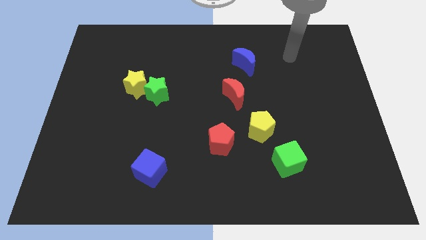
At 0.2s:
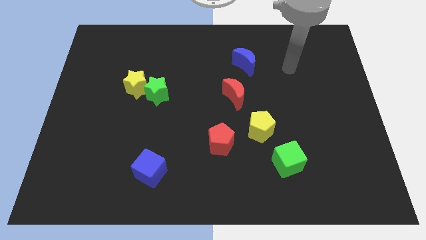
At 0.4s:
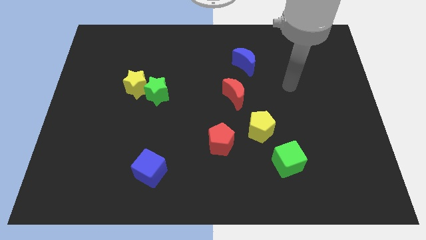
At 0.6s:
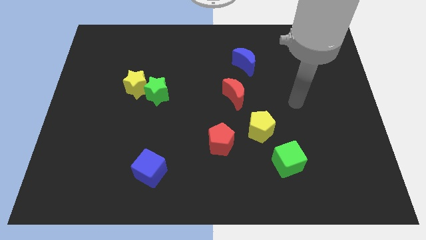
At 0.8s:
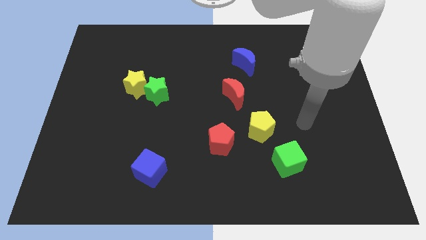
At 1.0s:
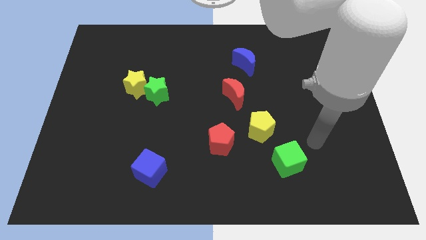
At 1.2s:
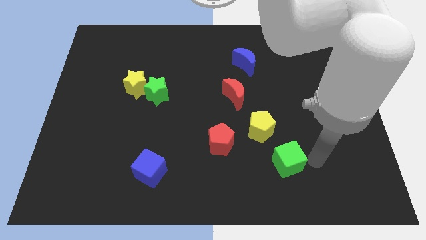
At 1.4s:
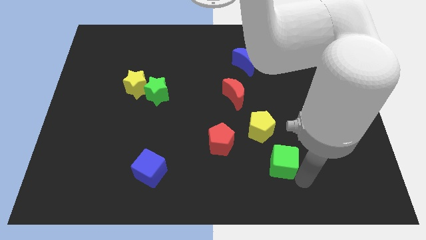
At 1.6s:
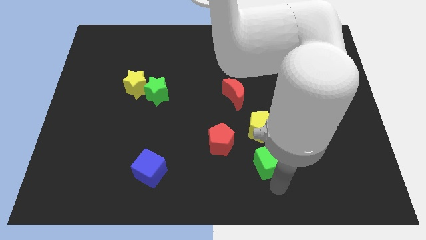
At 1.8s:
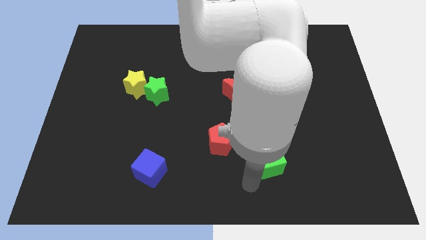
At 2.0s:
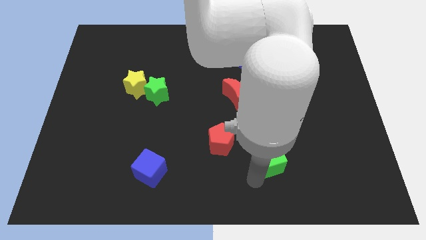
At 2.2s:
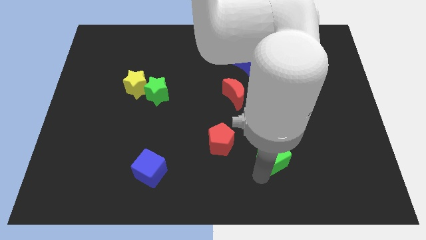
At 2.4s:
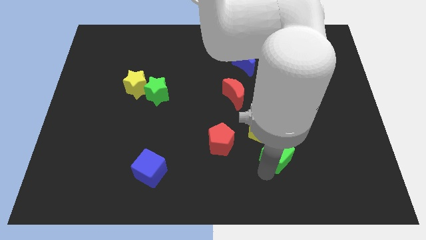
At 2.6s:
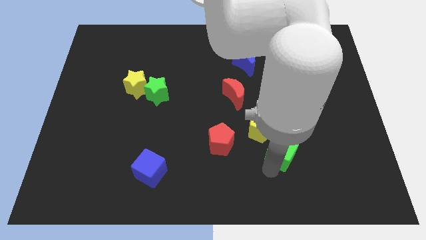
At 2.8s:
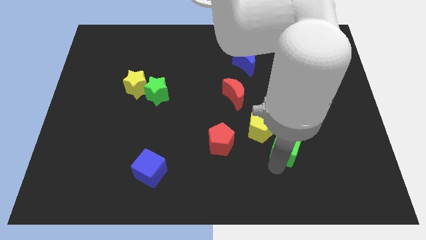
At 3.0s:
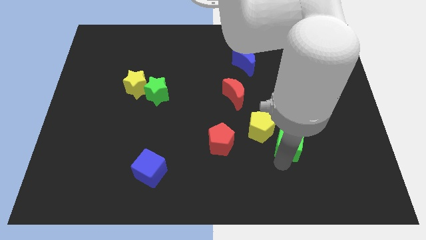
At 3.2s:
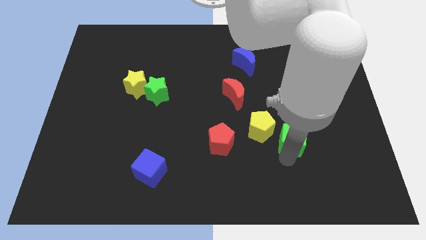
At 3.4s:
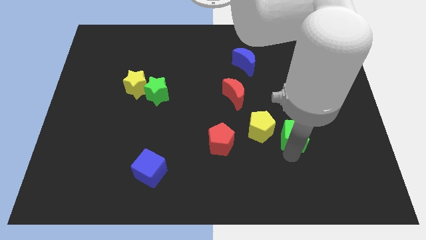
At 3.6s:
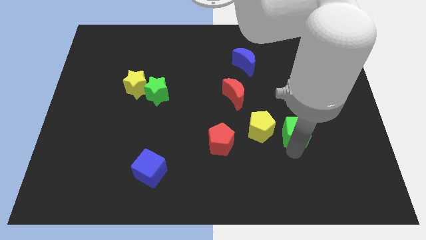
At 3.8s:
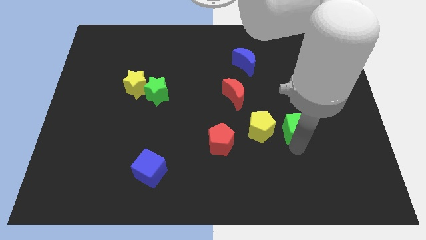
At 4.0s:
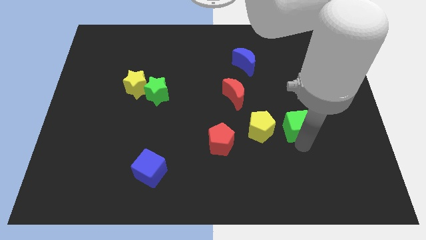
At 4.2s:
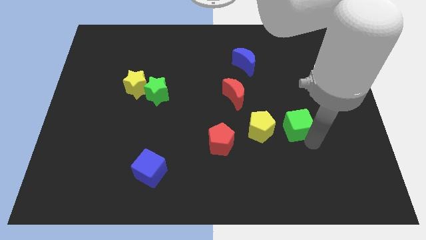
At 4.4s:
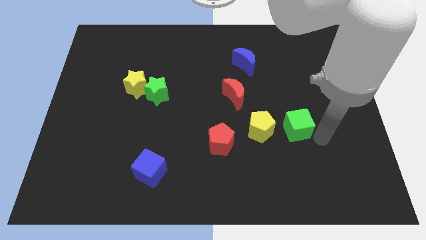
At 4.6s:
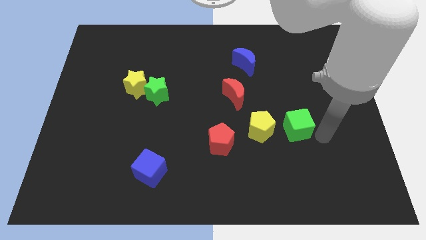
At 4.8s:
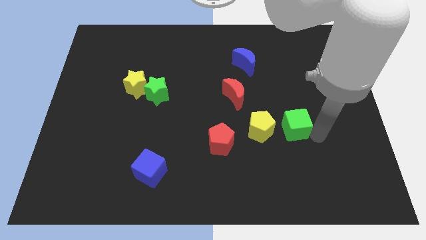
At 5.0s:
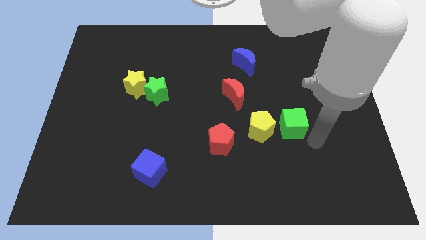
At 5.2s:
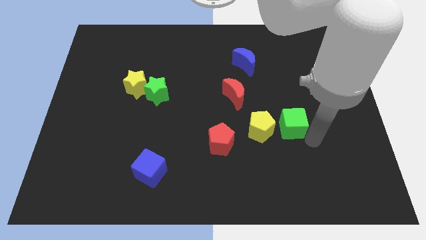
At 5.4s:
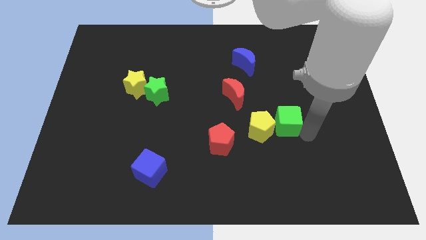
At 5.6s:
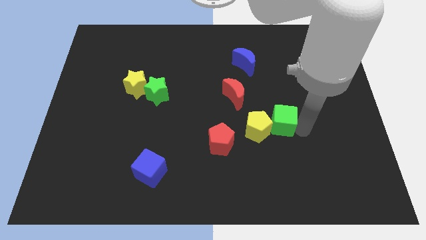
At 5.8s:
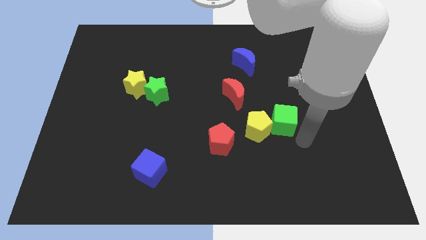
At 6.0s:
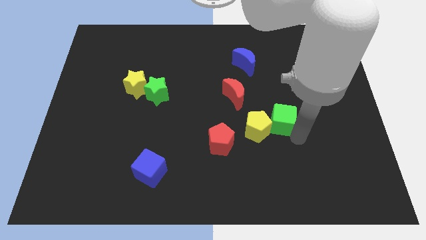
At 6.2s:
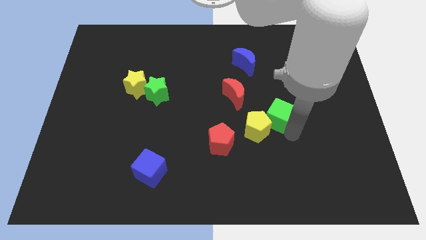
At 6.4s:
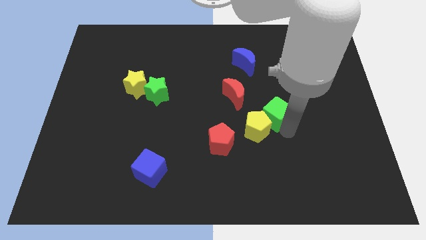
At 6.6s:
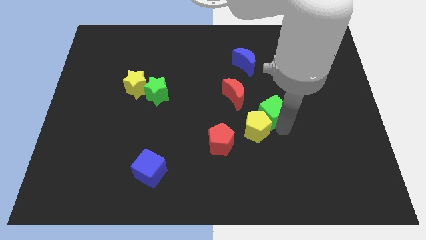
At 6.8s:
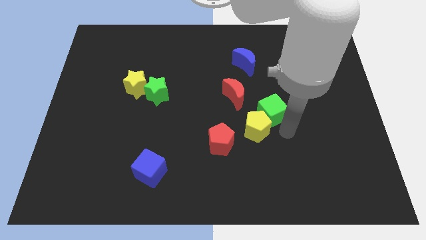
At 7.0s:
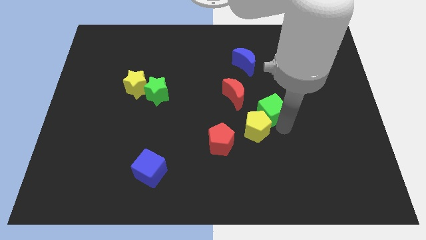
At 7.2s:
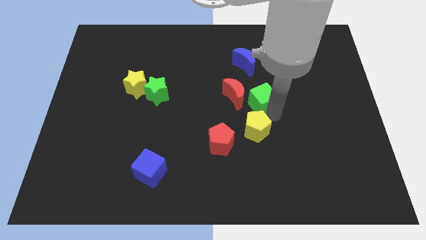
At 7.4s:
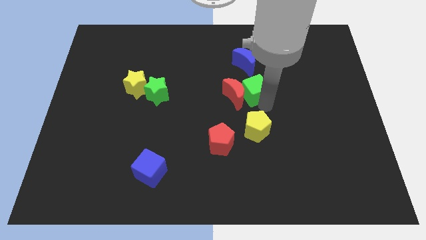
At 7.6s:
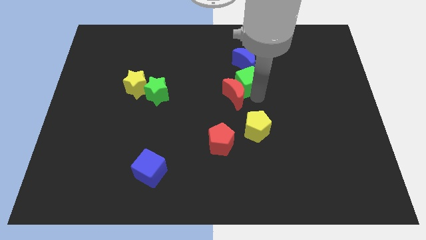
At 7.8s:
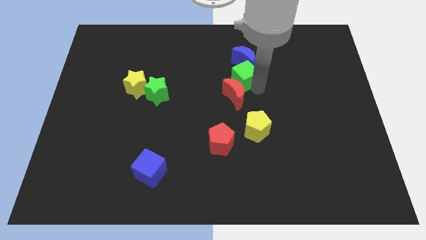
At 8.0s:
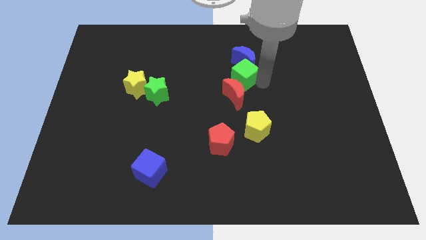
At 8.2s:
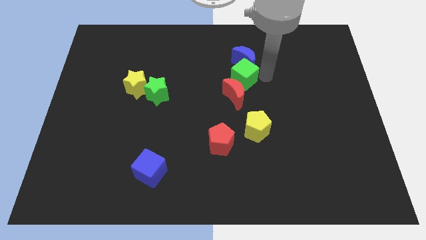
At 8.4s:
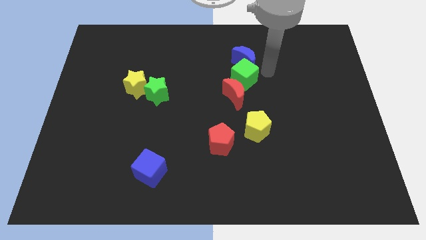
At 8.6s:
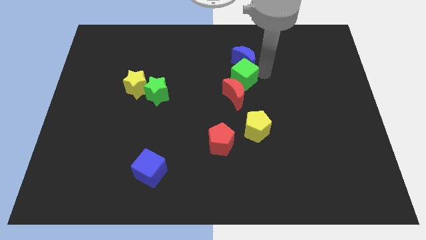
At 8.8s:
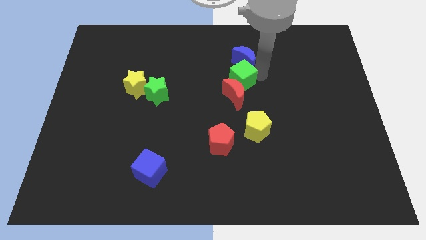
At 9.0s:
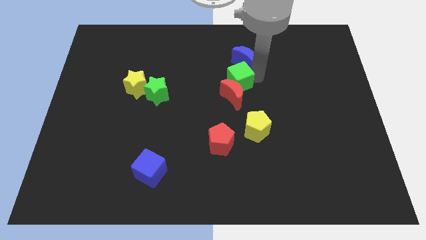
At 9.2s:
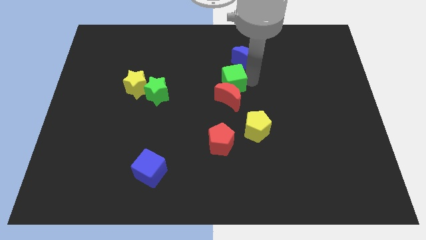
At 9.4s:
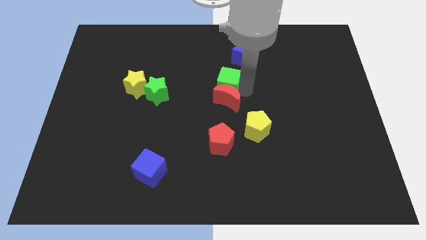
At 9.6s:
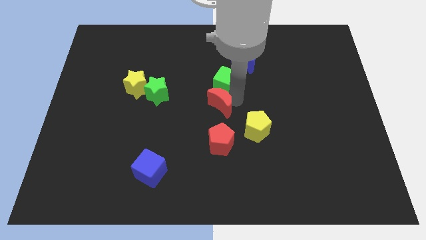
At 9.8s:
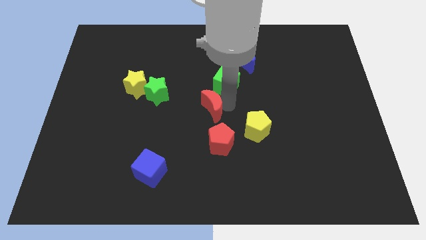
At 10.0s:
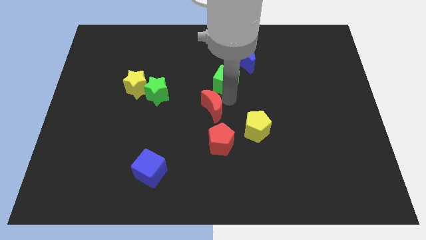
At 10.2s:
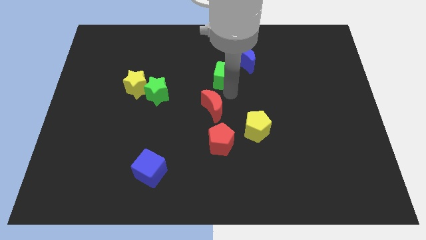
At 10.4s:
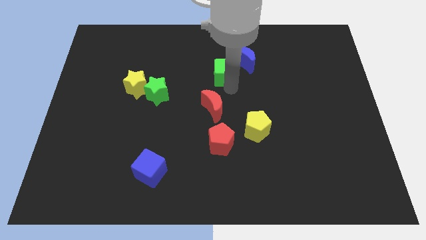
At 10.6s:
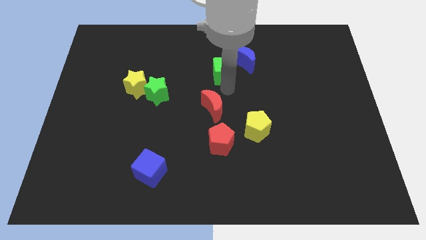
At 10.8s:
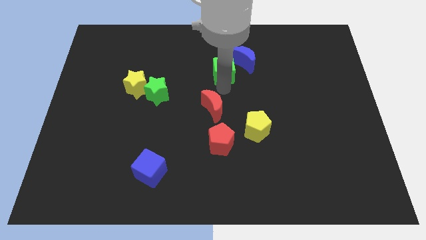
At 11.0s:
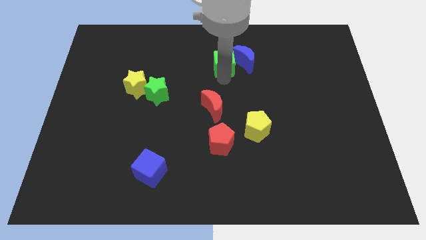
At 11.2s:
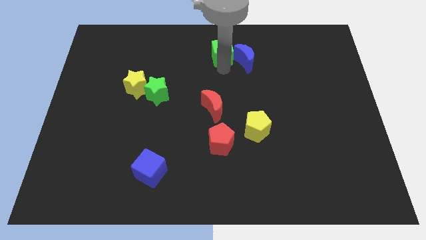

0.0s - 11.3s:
slide the green cube to the top side
